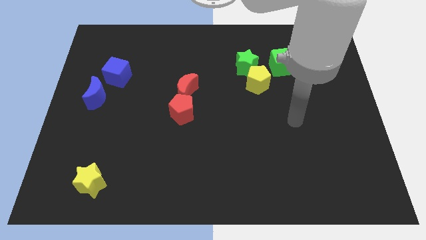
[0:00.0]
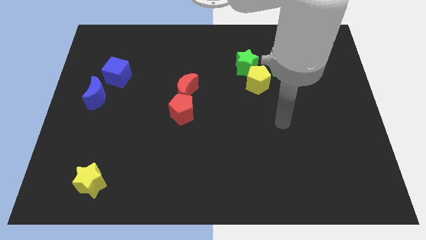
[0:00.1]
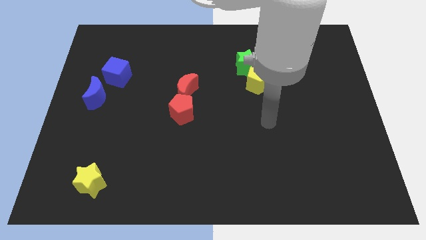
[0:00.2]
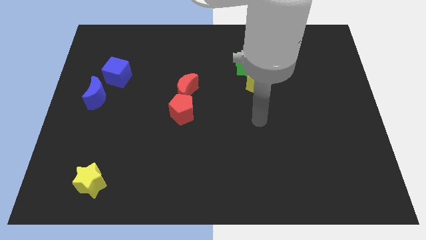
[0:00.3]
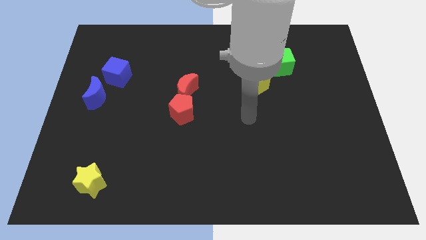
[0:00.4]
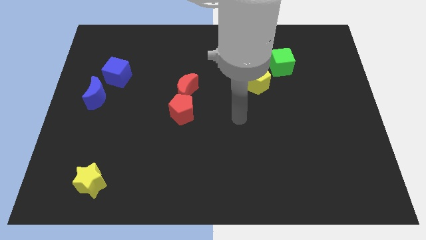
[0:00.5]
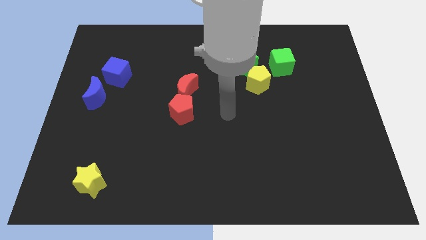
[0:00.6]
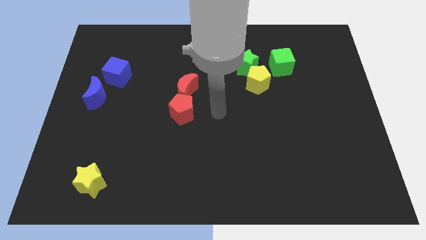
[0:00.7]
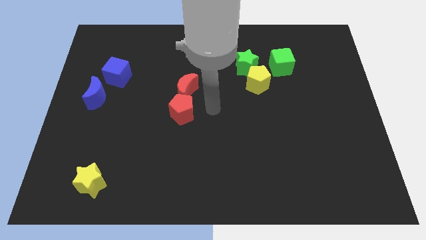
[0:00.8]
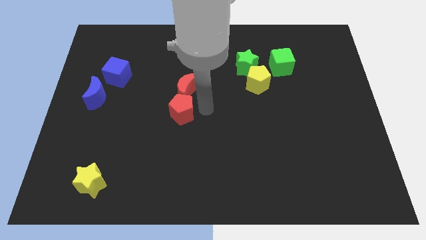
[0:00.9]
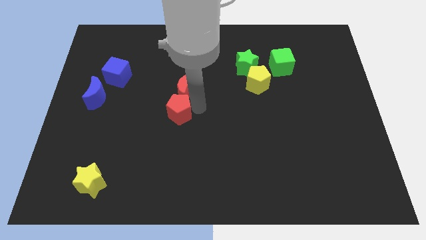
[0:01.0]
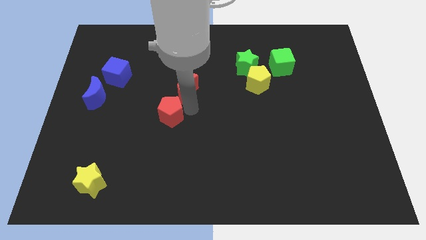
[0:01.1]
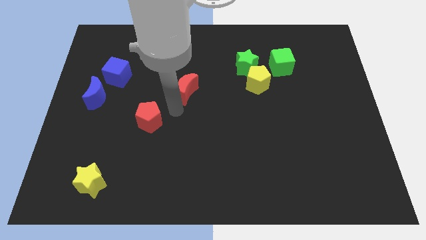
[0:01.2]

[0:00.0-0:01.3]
move the red moon away from the red pentagon

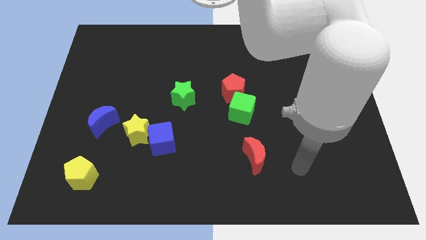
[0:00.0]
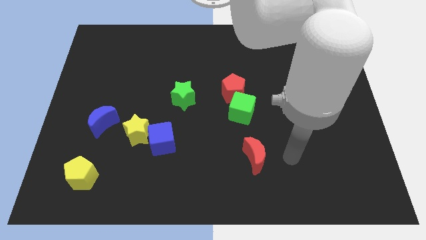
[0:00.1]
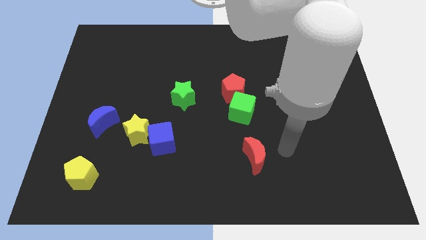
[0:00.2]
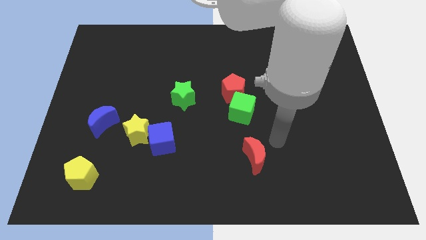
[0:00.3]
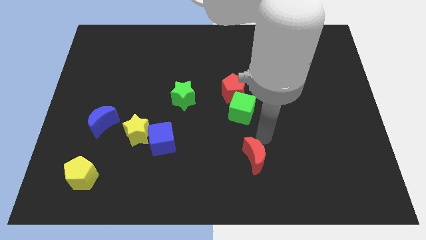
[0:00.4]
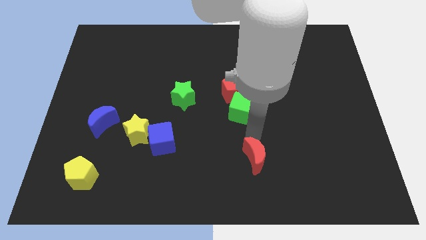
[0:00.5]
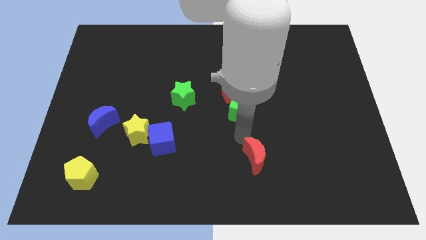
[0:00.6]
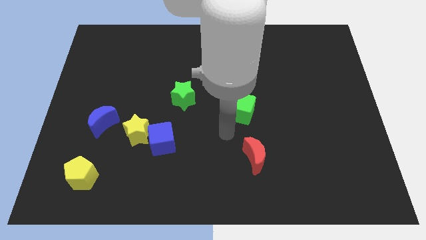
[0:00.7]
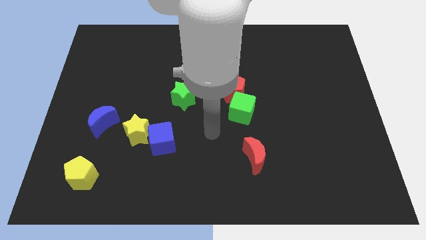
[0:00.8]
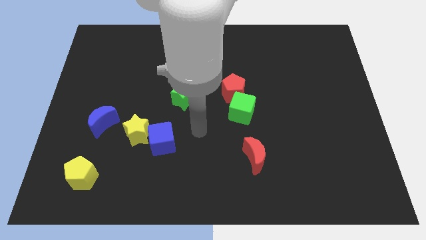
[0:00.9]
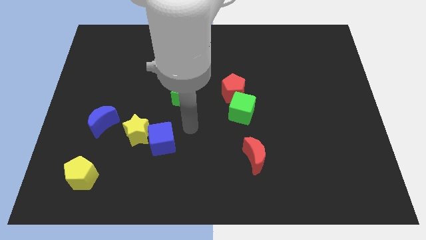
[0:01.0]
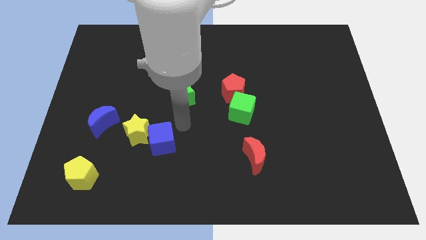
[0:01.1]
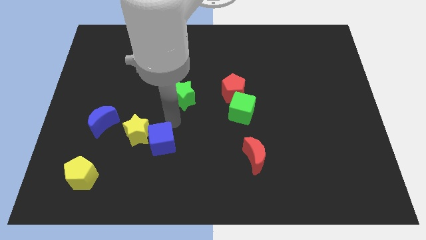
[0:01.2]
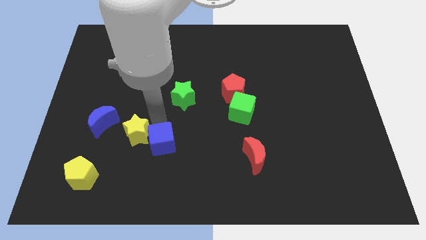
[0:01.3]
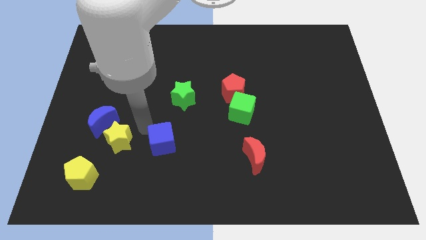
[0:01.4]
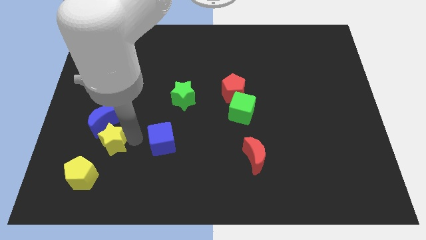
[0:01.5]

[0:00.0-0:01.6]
separate the blue cube from the yellow star

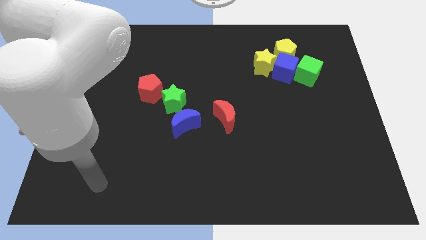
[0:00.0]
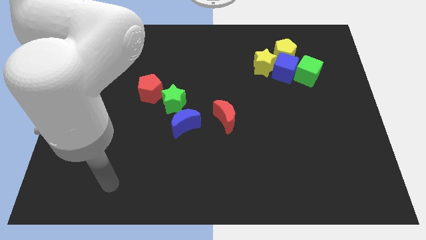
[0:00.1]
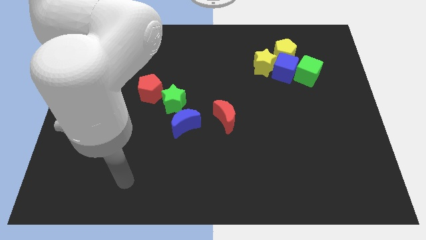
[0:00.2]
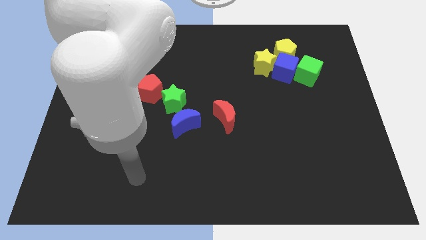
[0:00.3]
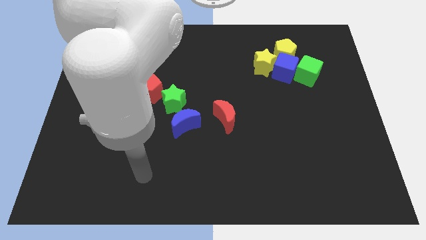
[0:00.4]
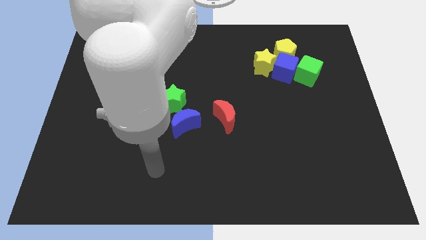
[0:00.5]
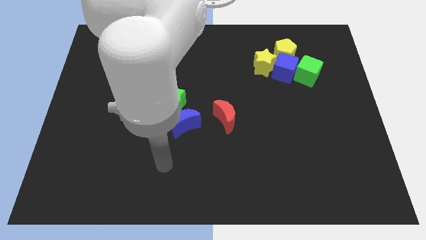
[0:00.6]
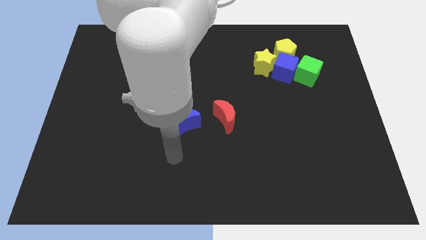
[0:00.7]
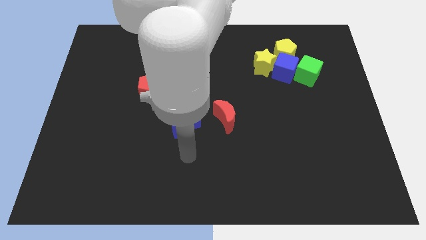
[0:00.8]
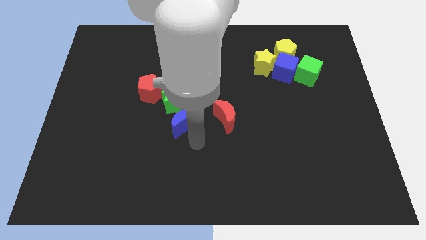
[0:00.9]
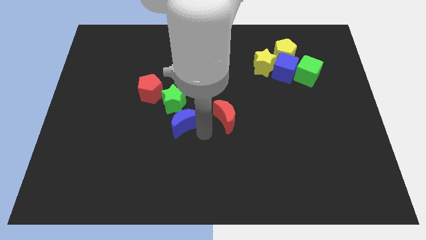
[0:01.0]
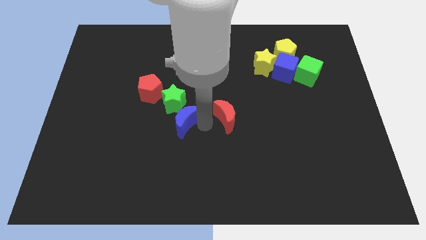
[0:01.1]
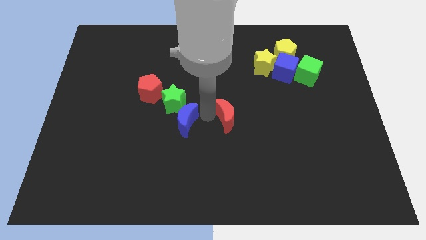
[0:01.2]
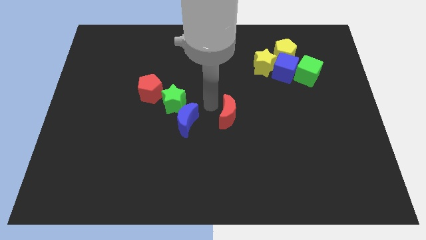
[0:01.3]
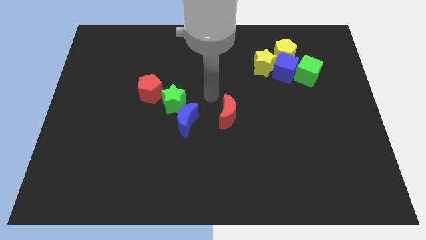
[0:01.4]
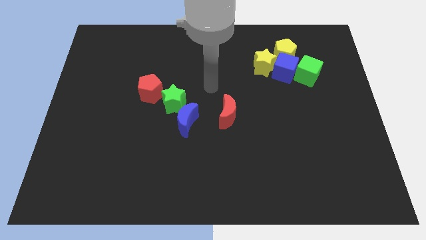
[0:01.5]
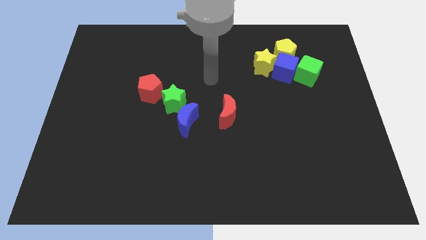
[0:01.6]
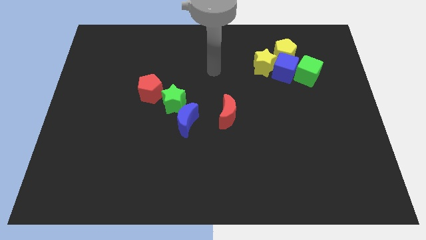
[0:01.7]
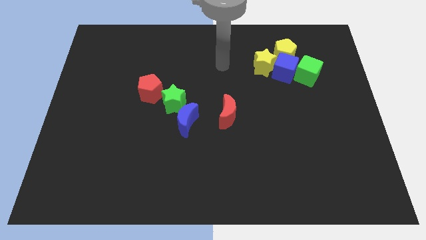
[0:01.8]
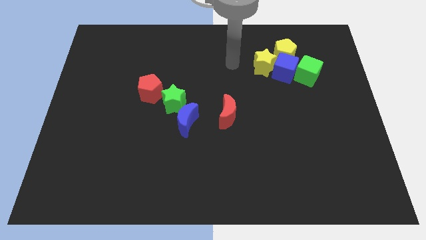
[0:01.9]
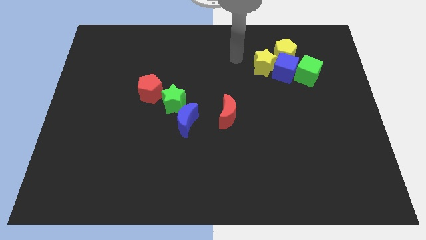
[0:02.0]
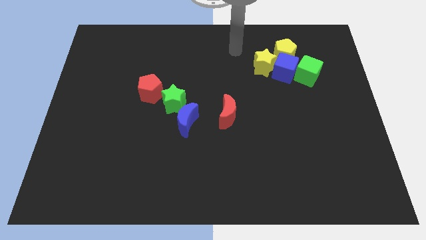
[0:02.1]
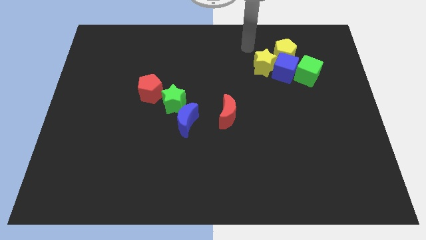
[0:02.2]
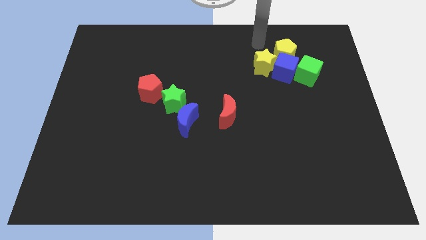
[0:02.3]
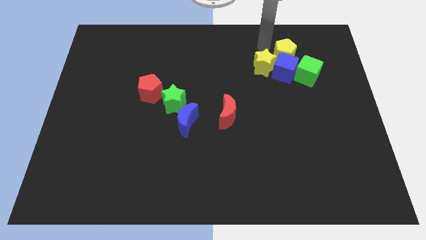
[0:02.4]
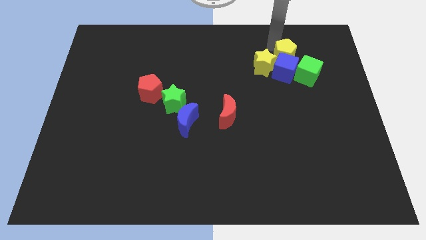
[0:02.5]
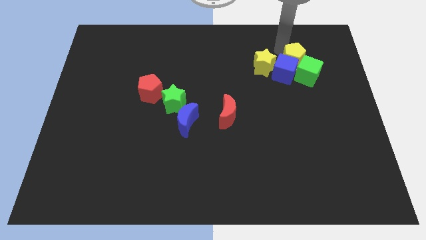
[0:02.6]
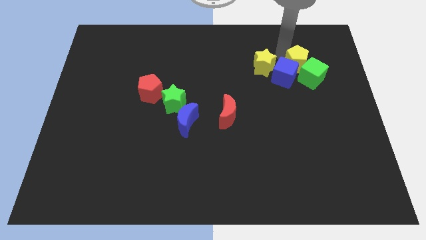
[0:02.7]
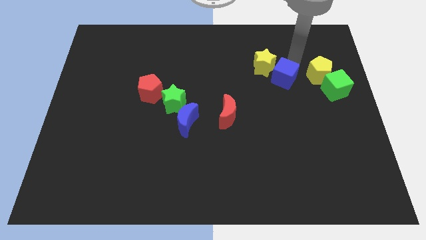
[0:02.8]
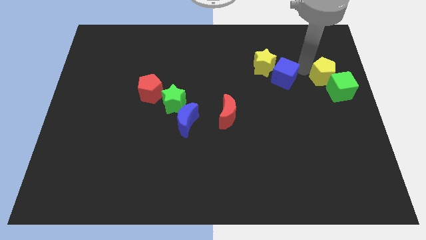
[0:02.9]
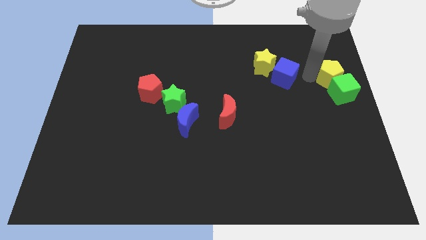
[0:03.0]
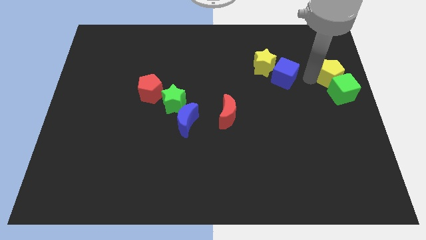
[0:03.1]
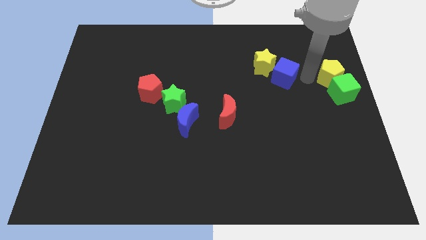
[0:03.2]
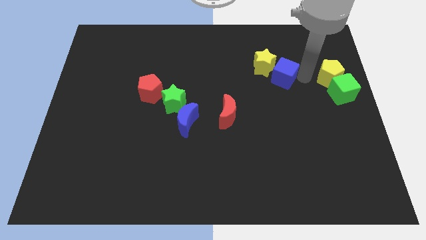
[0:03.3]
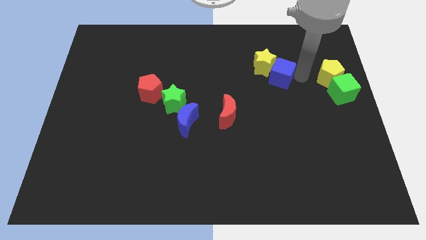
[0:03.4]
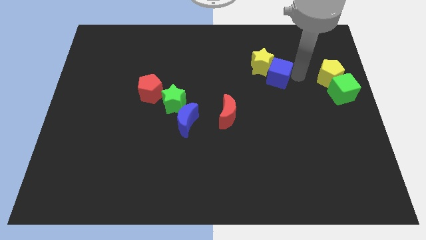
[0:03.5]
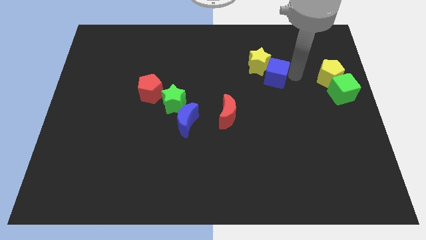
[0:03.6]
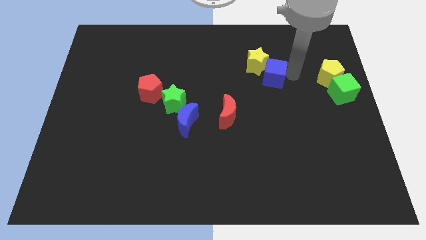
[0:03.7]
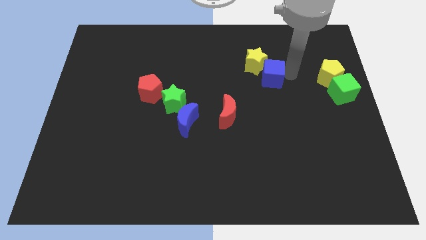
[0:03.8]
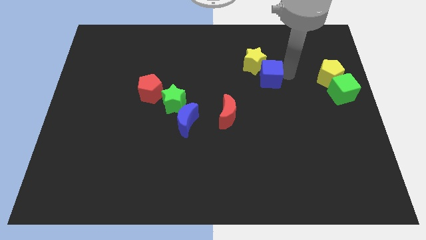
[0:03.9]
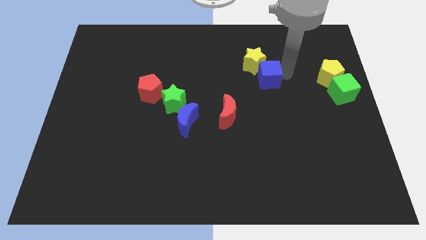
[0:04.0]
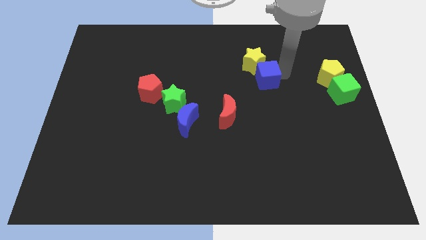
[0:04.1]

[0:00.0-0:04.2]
move the blue cube away from the group

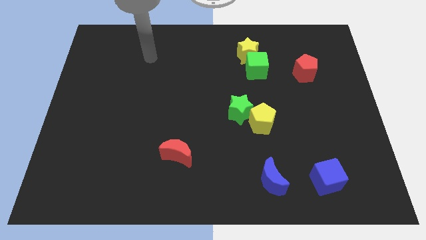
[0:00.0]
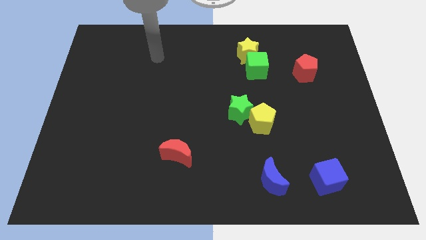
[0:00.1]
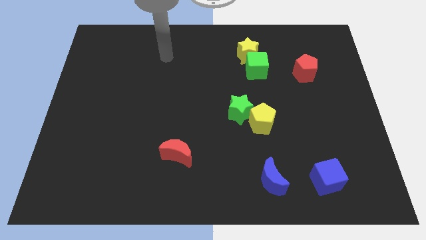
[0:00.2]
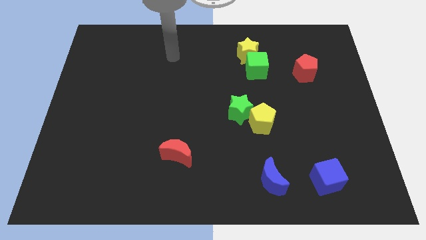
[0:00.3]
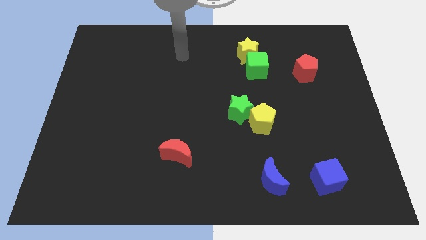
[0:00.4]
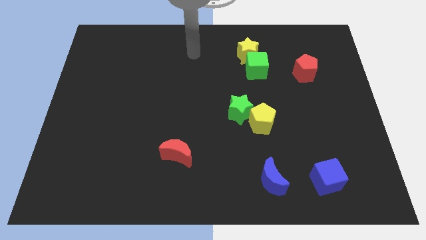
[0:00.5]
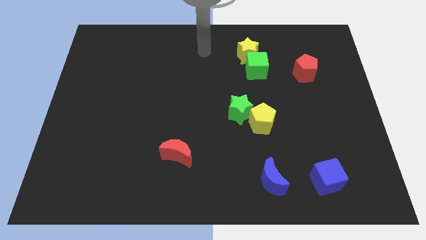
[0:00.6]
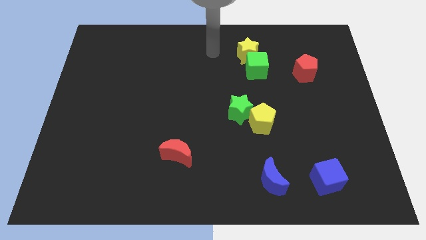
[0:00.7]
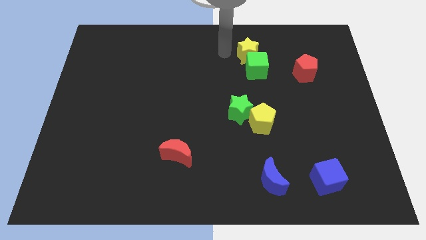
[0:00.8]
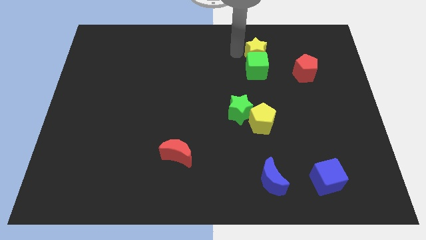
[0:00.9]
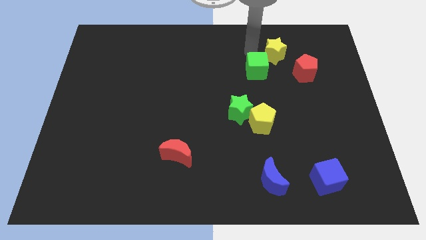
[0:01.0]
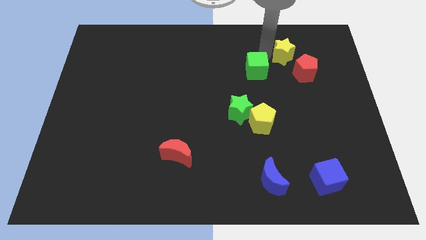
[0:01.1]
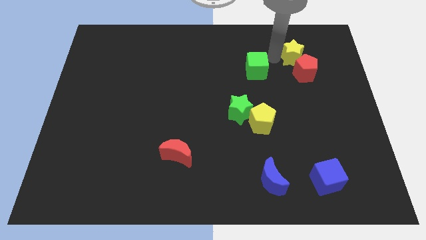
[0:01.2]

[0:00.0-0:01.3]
pull the green cube apart from the yellow star

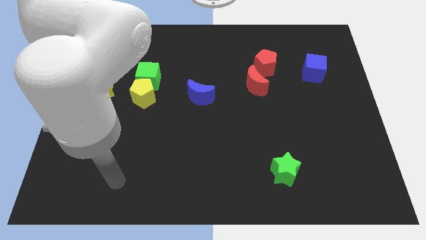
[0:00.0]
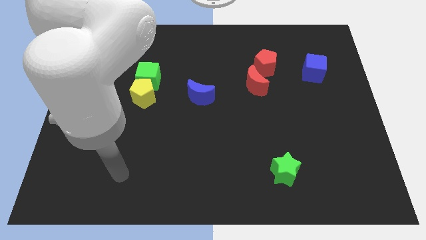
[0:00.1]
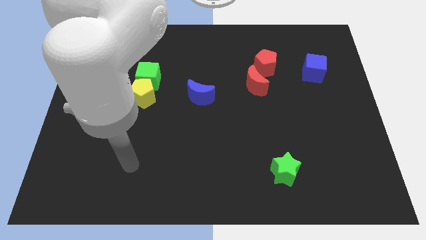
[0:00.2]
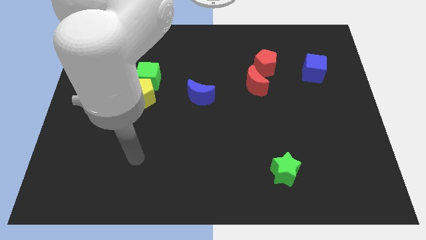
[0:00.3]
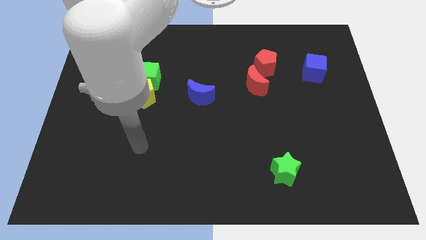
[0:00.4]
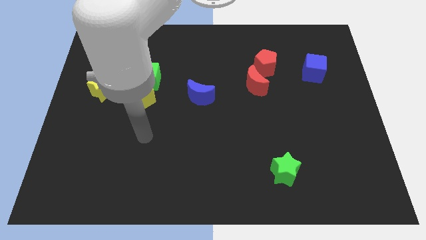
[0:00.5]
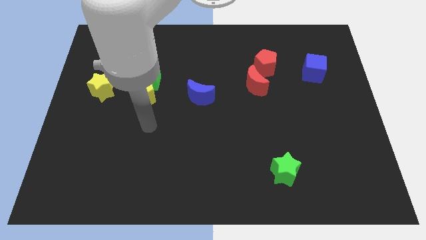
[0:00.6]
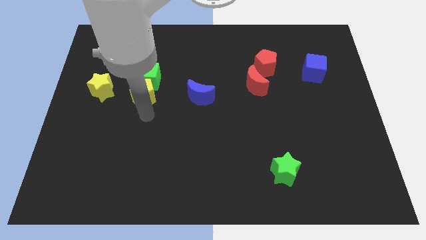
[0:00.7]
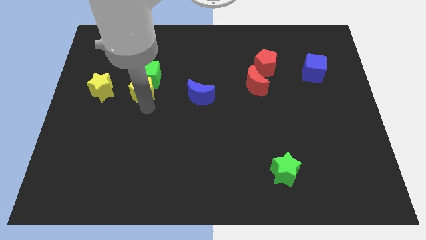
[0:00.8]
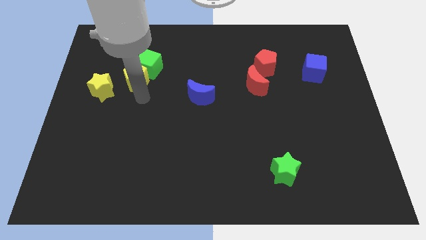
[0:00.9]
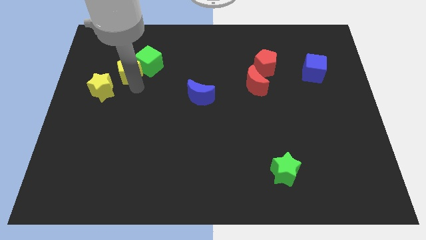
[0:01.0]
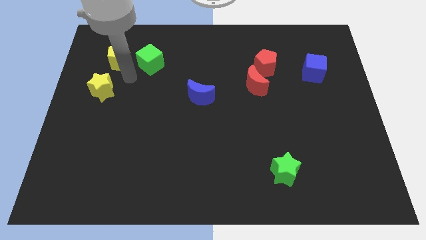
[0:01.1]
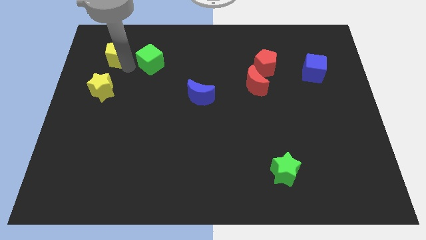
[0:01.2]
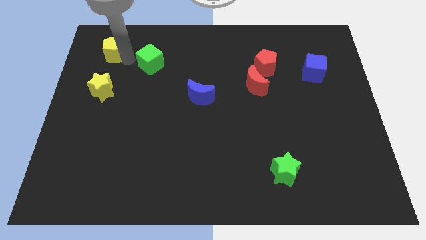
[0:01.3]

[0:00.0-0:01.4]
pull the green cube apart from the yellow pentagon
